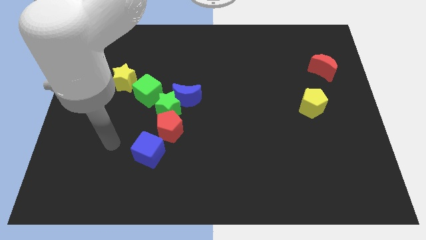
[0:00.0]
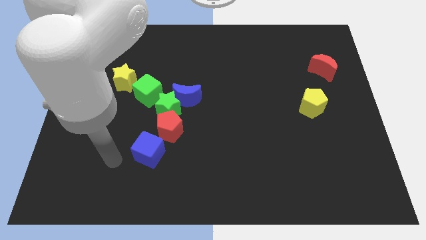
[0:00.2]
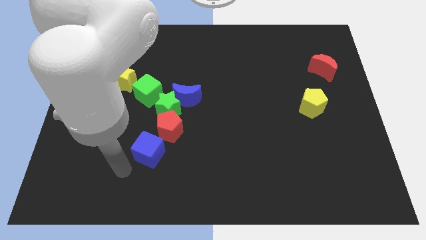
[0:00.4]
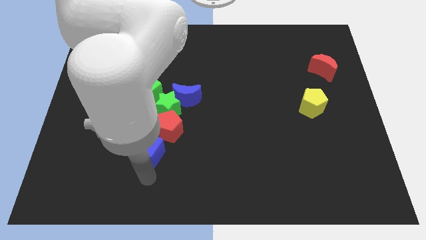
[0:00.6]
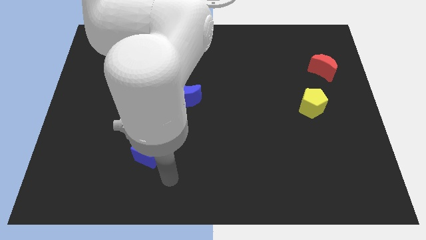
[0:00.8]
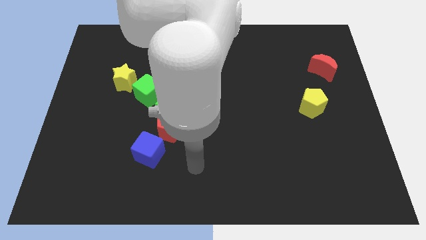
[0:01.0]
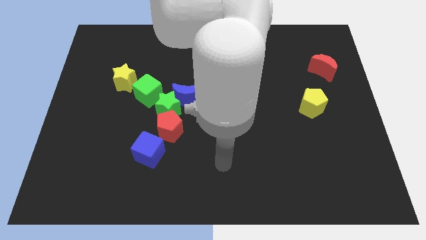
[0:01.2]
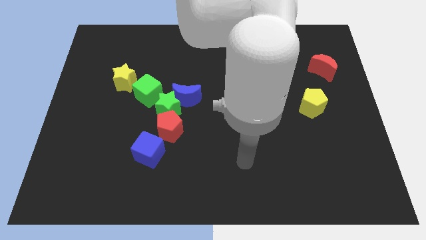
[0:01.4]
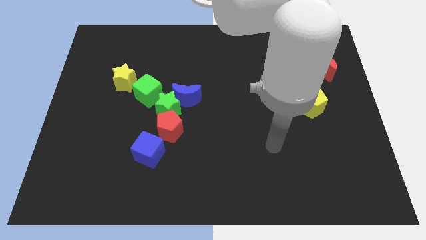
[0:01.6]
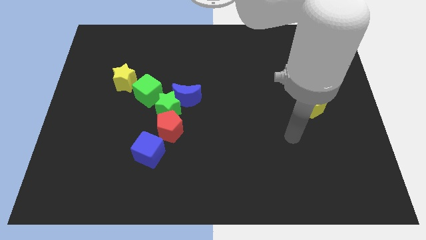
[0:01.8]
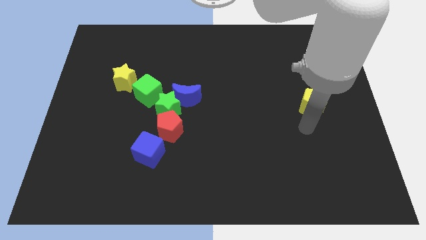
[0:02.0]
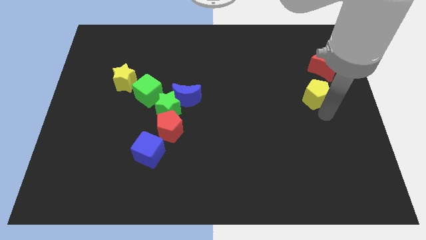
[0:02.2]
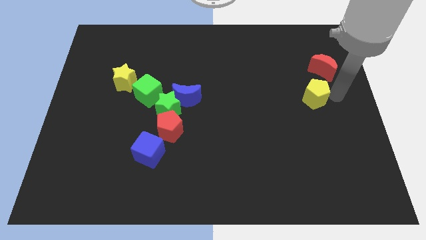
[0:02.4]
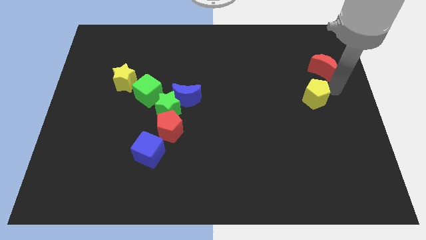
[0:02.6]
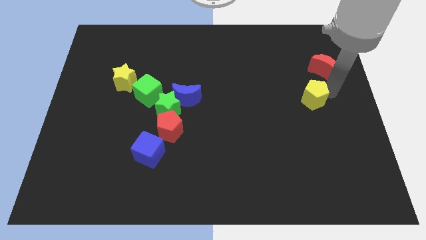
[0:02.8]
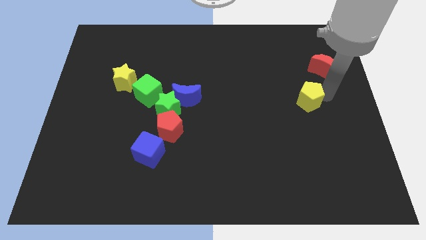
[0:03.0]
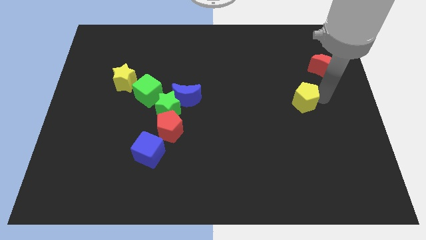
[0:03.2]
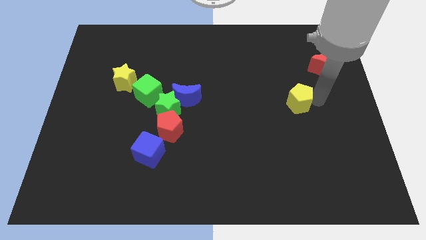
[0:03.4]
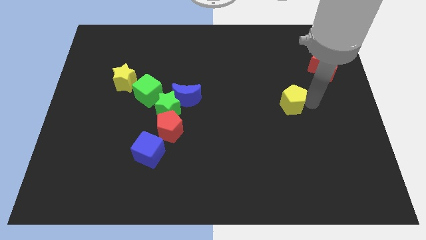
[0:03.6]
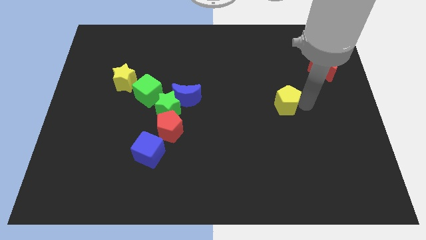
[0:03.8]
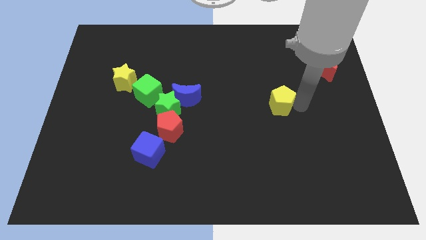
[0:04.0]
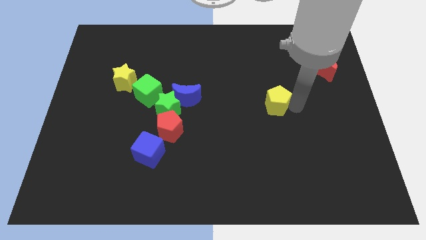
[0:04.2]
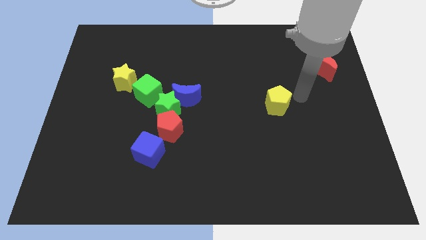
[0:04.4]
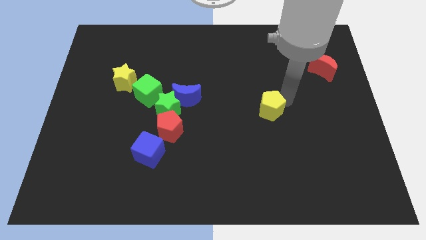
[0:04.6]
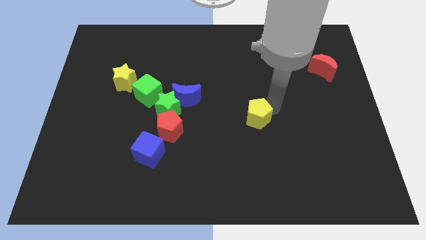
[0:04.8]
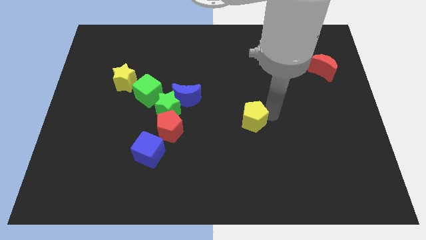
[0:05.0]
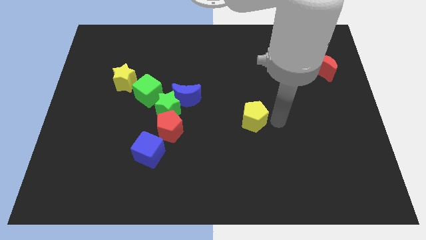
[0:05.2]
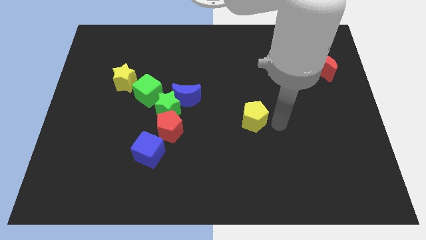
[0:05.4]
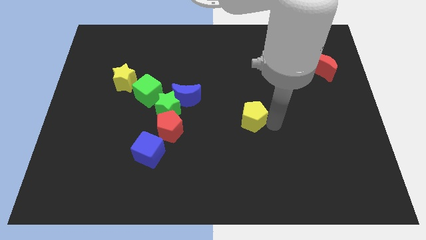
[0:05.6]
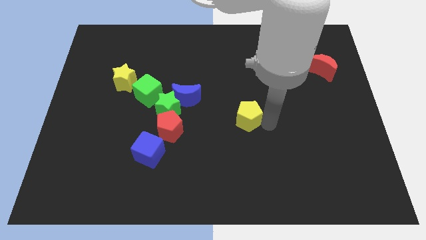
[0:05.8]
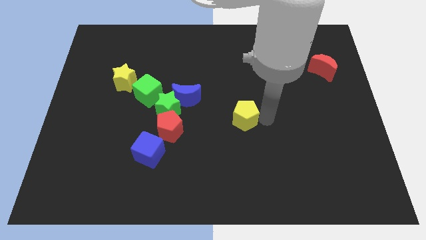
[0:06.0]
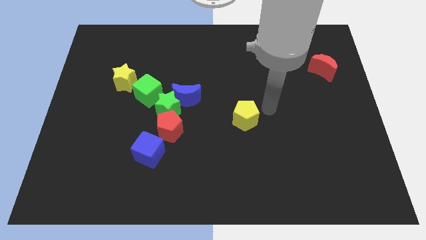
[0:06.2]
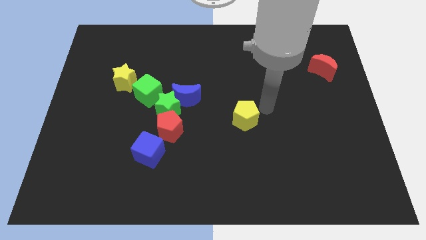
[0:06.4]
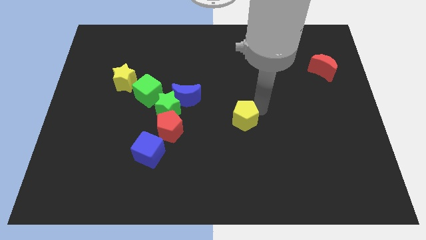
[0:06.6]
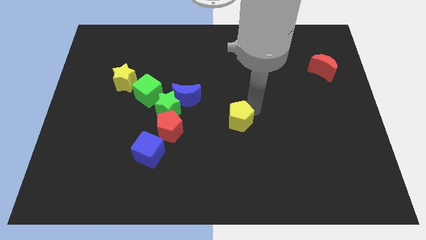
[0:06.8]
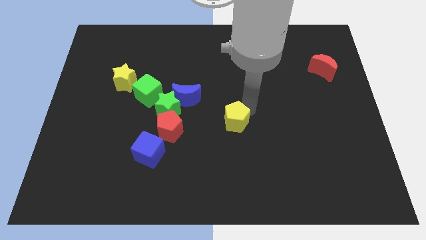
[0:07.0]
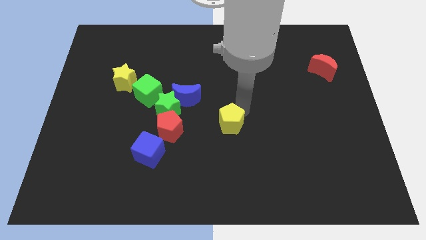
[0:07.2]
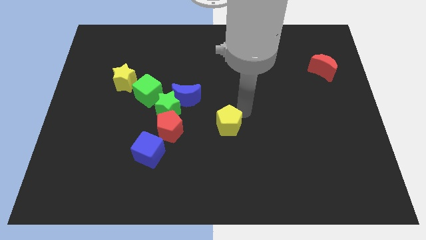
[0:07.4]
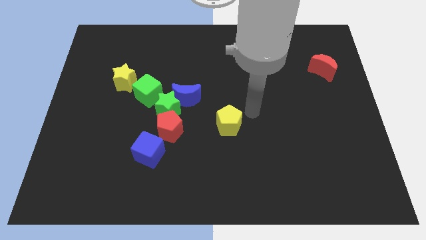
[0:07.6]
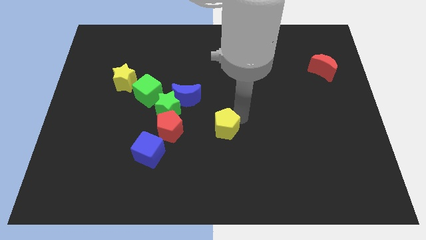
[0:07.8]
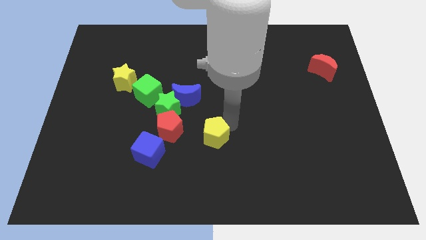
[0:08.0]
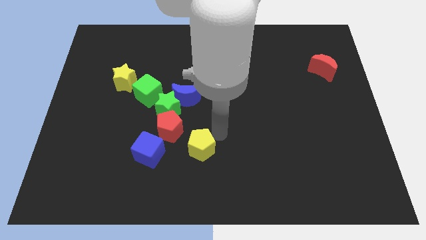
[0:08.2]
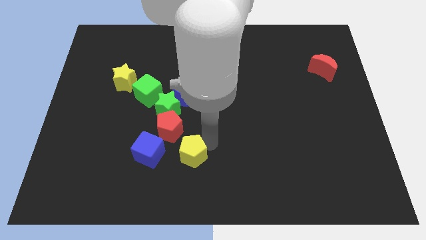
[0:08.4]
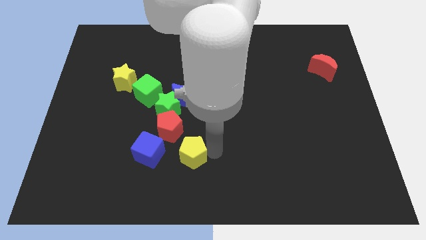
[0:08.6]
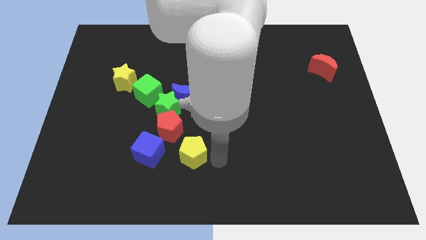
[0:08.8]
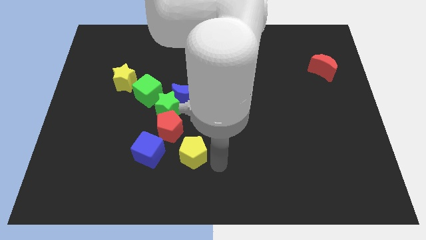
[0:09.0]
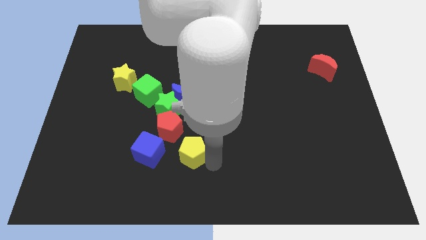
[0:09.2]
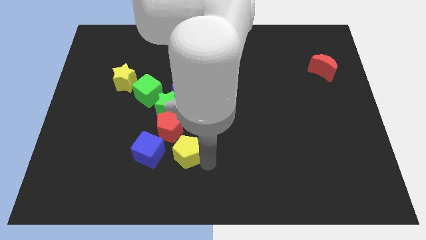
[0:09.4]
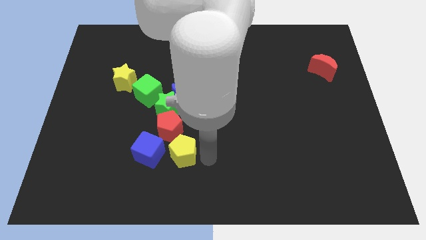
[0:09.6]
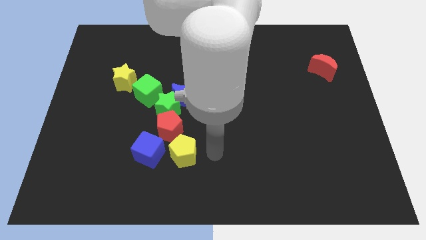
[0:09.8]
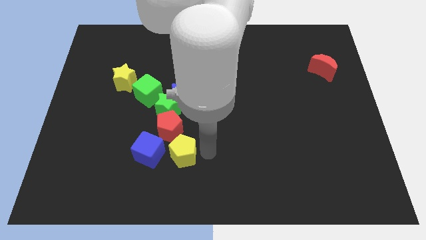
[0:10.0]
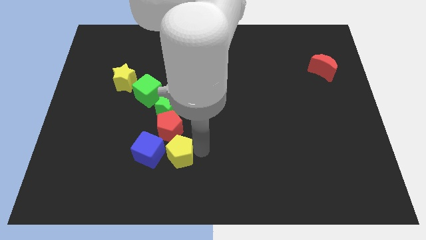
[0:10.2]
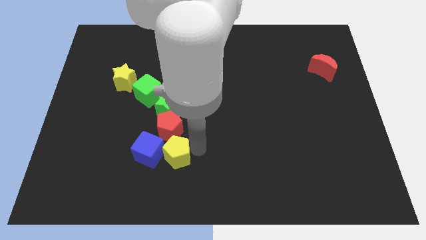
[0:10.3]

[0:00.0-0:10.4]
push the yellow pentagon close to the blue cube

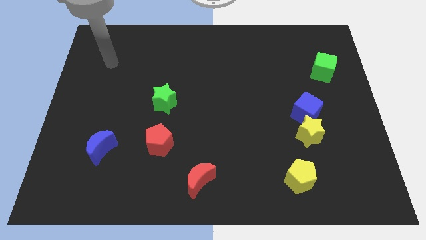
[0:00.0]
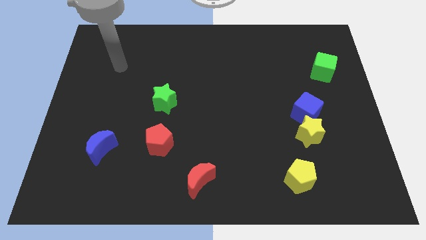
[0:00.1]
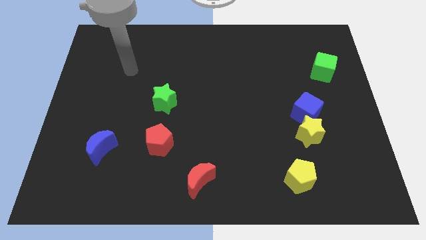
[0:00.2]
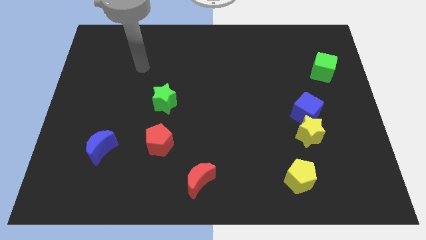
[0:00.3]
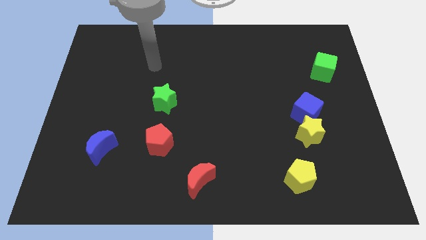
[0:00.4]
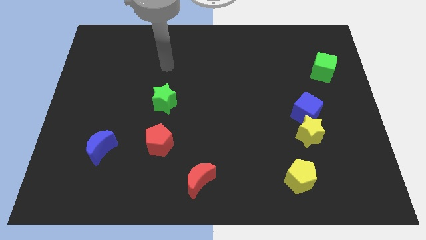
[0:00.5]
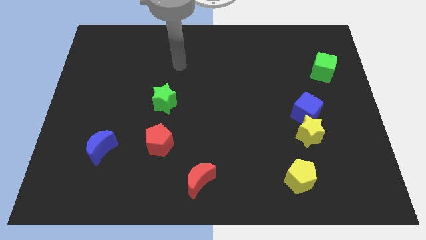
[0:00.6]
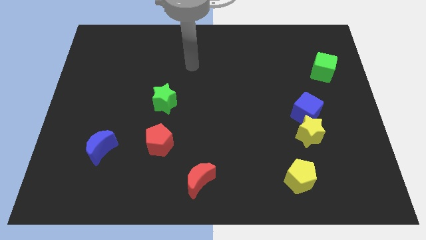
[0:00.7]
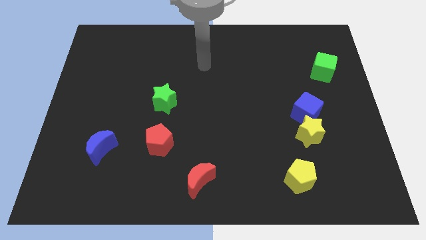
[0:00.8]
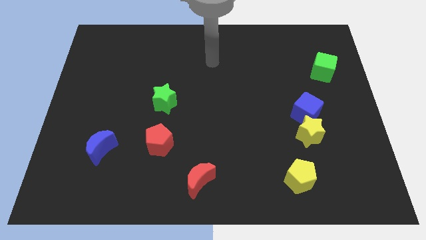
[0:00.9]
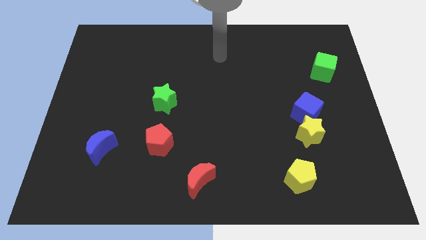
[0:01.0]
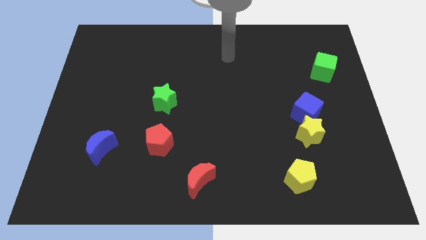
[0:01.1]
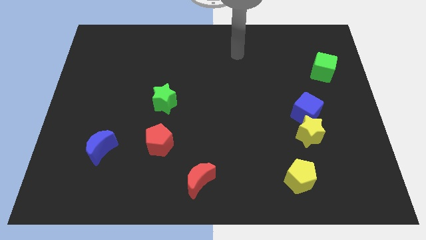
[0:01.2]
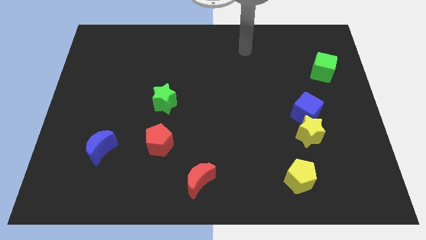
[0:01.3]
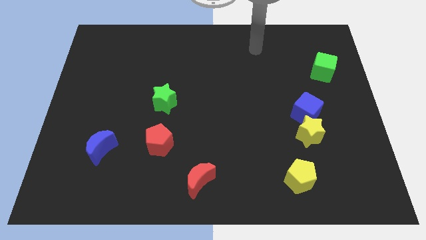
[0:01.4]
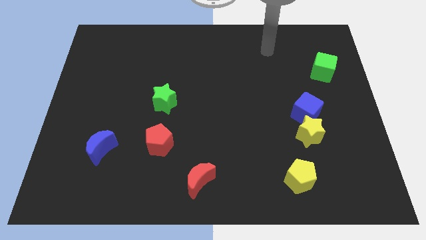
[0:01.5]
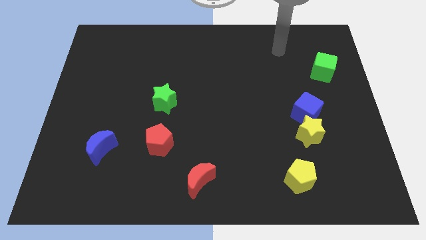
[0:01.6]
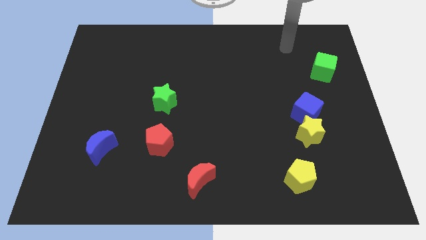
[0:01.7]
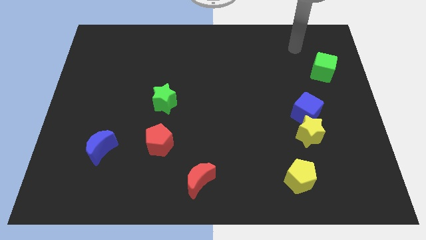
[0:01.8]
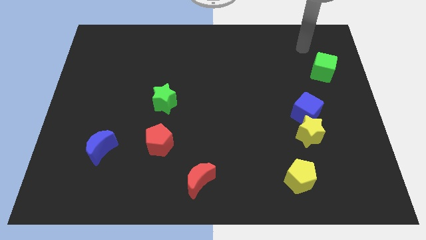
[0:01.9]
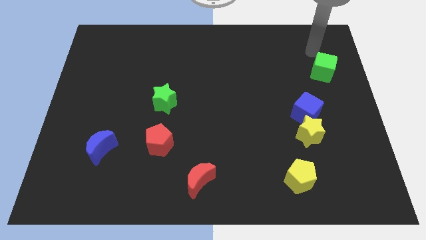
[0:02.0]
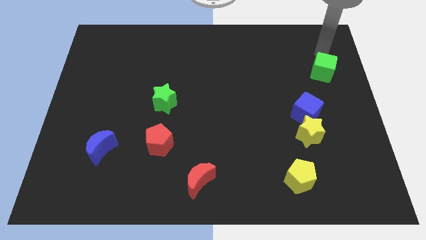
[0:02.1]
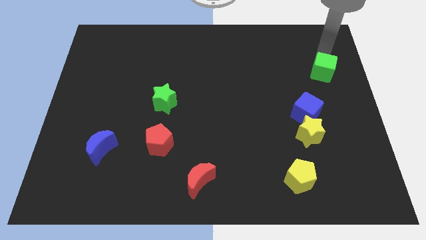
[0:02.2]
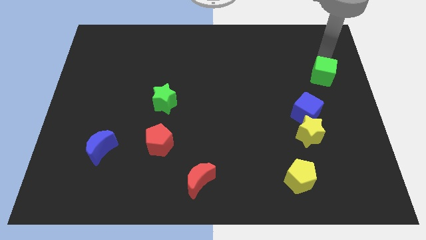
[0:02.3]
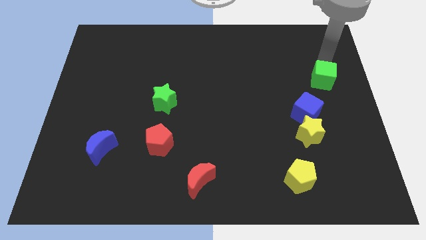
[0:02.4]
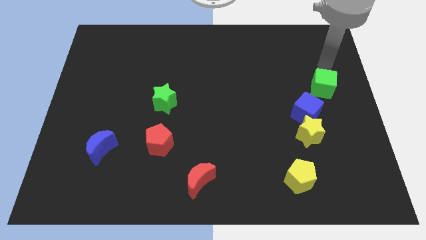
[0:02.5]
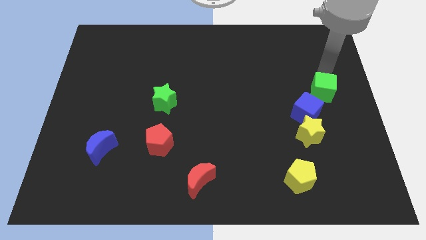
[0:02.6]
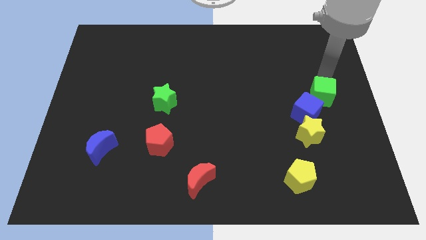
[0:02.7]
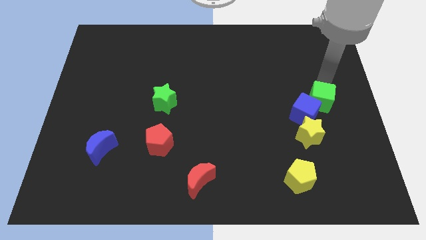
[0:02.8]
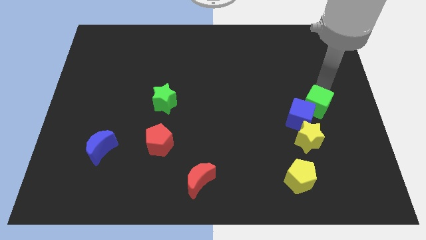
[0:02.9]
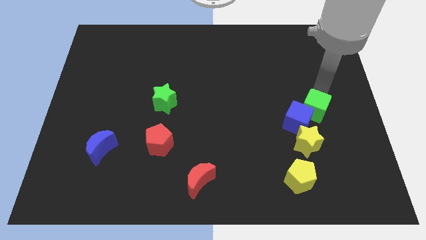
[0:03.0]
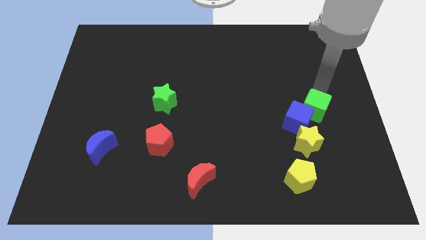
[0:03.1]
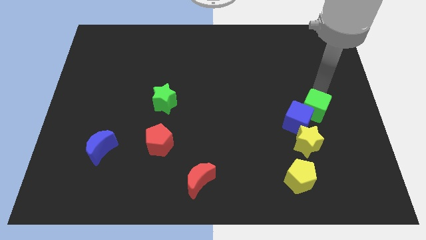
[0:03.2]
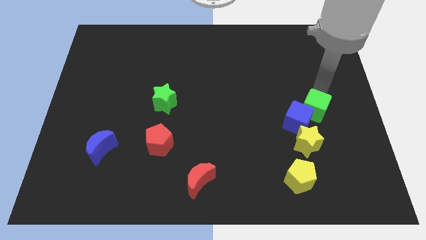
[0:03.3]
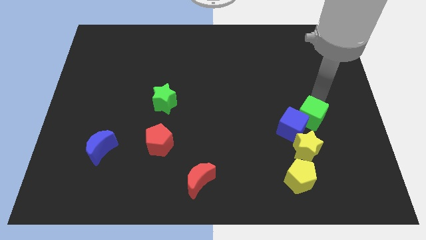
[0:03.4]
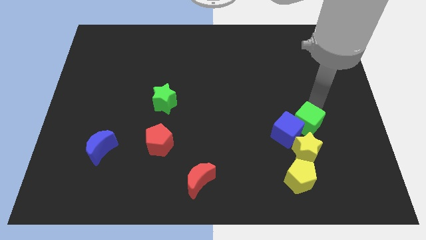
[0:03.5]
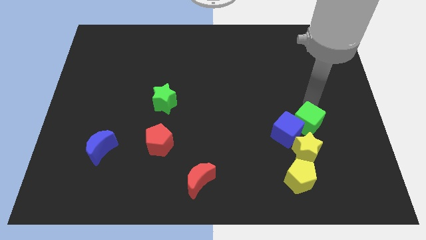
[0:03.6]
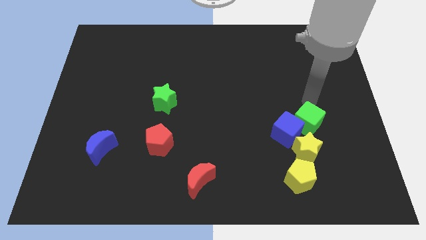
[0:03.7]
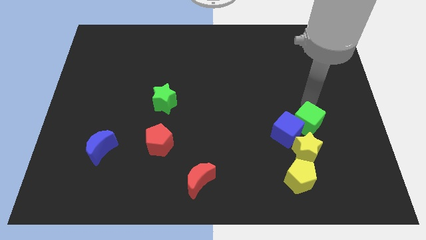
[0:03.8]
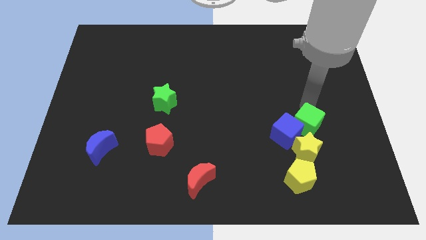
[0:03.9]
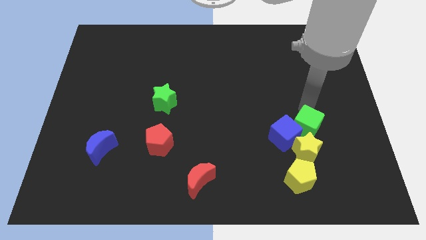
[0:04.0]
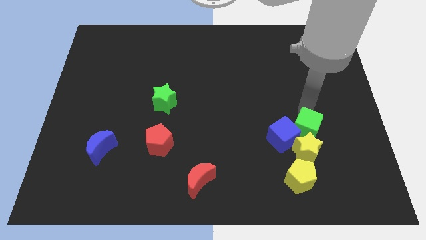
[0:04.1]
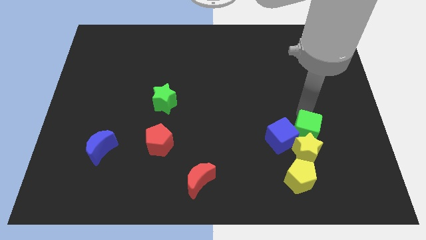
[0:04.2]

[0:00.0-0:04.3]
put the green cube to the yellow star
